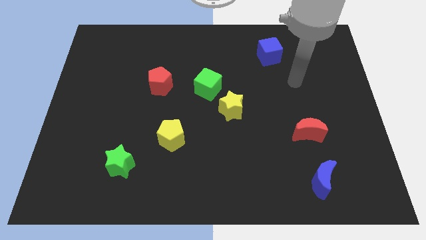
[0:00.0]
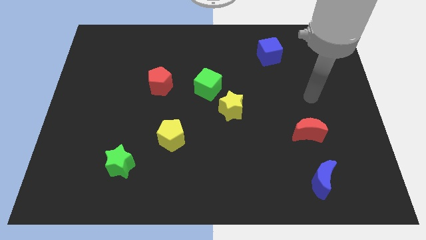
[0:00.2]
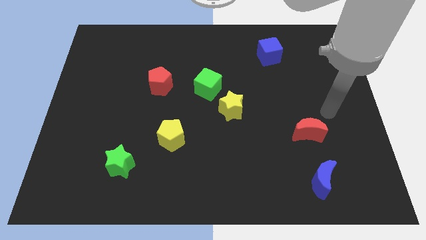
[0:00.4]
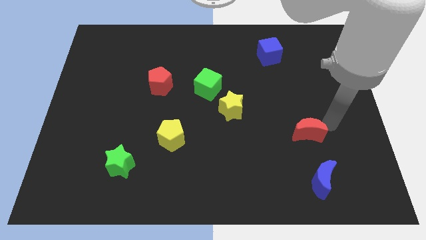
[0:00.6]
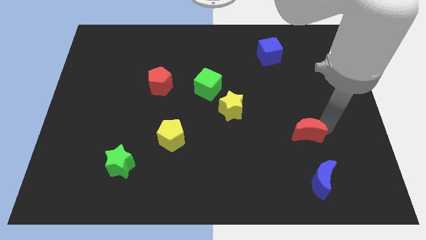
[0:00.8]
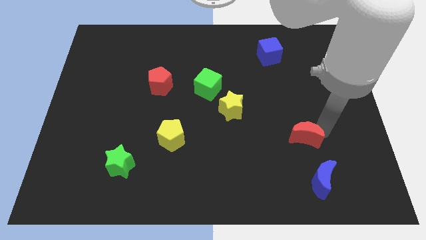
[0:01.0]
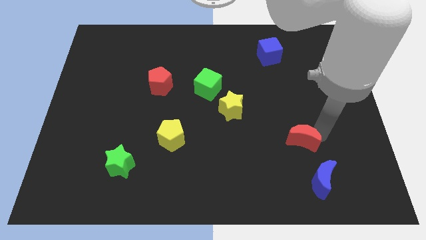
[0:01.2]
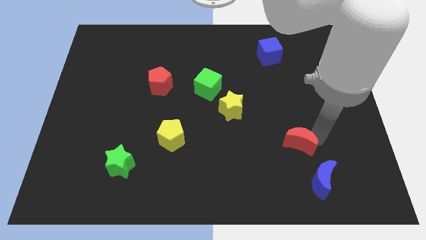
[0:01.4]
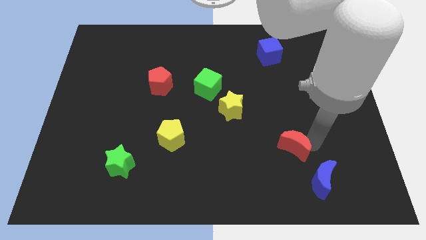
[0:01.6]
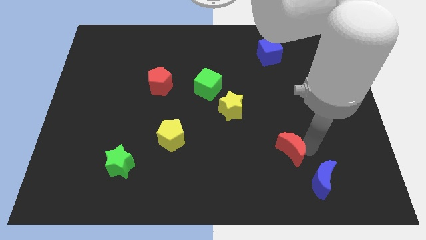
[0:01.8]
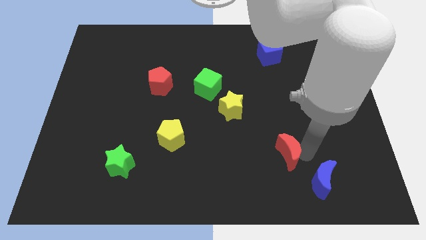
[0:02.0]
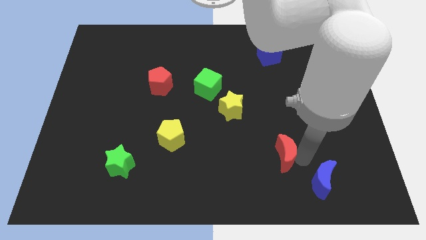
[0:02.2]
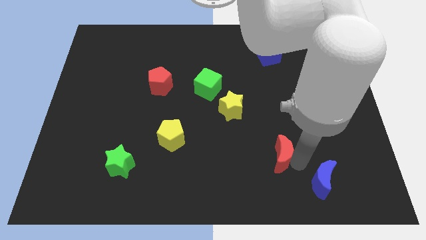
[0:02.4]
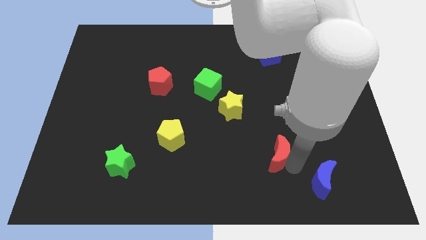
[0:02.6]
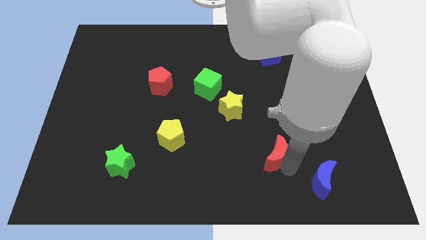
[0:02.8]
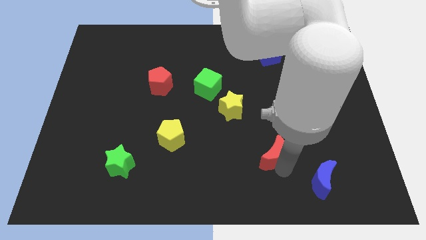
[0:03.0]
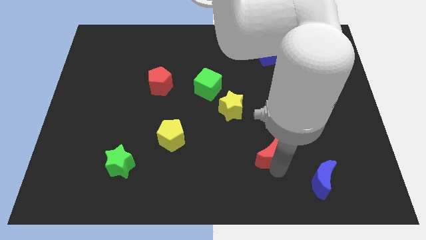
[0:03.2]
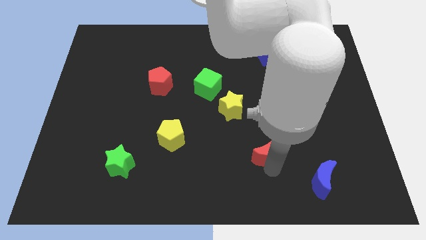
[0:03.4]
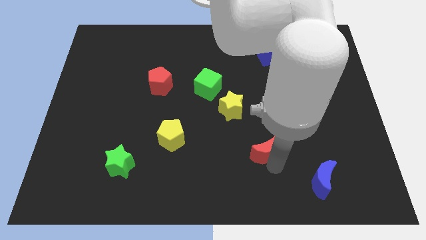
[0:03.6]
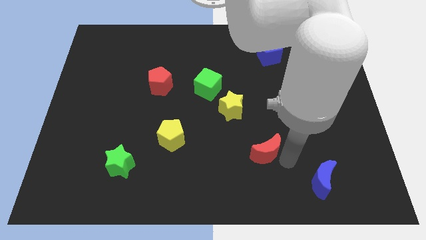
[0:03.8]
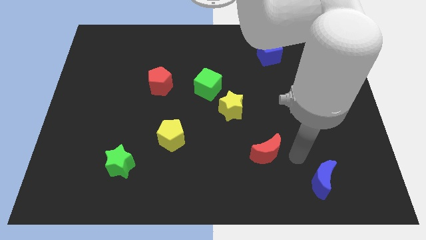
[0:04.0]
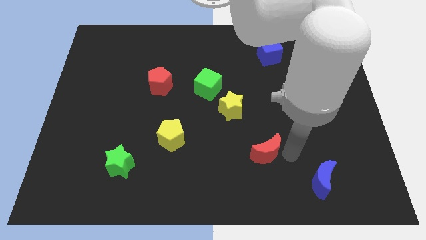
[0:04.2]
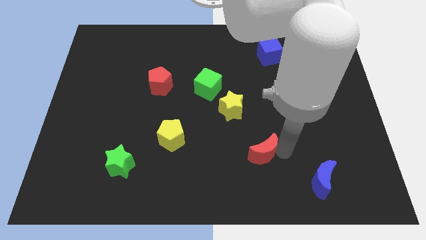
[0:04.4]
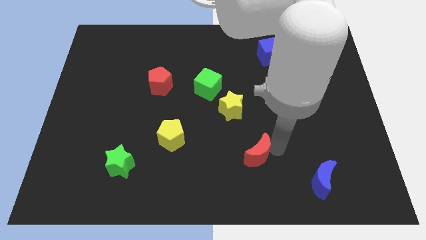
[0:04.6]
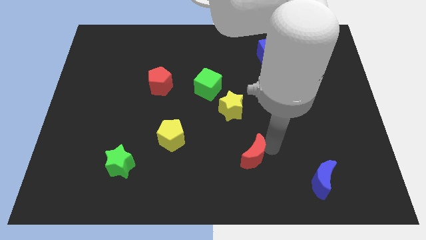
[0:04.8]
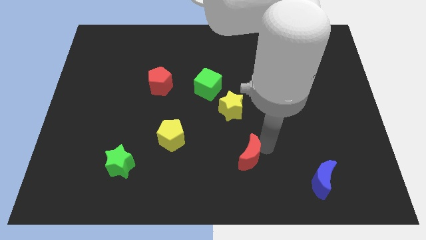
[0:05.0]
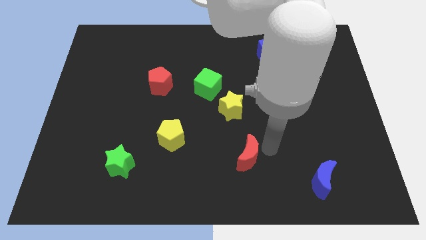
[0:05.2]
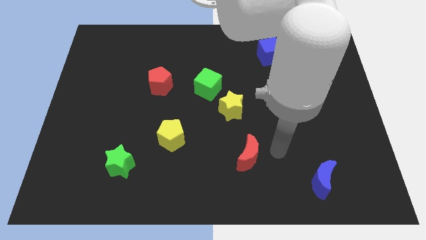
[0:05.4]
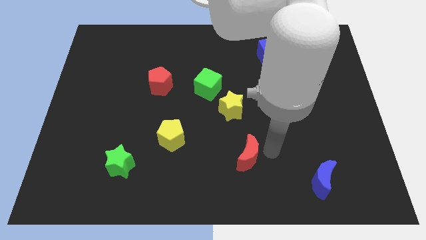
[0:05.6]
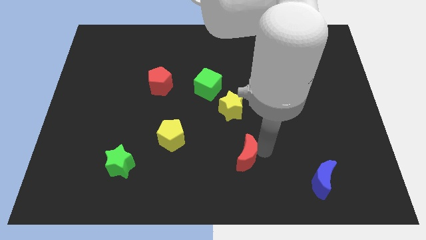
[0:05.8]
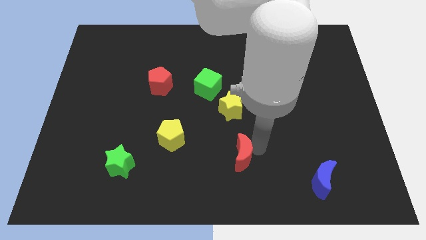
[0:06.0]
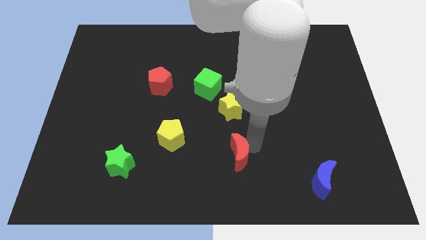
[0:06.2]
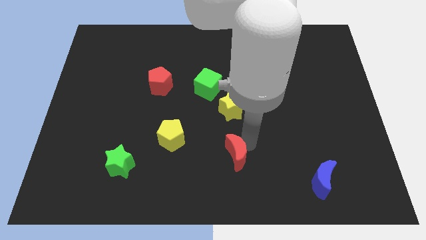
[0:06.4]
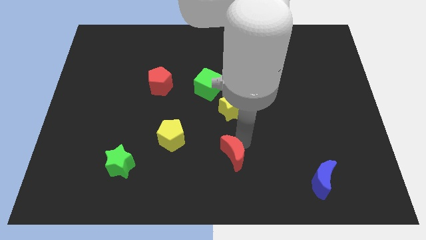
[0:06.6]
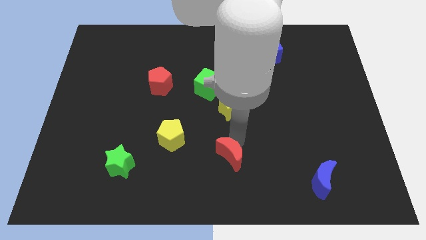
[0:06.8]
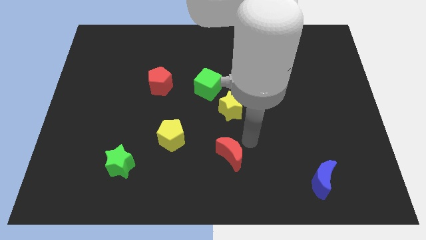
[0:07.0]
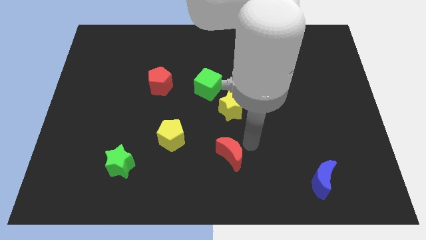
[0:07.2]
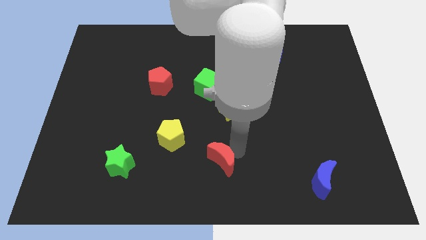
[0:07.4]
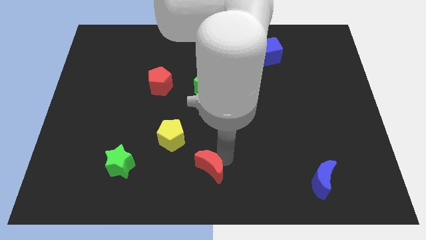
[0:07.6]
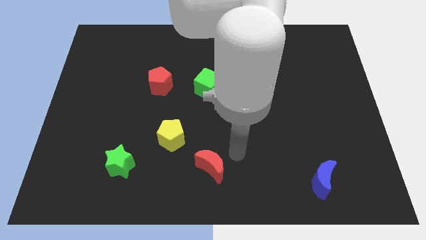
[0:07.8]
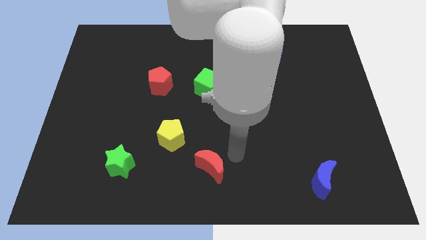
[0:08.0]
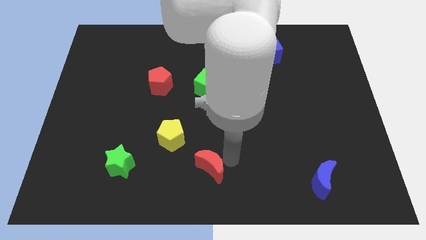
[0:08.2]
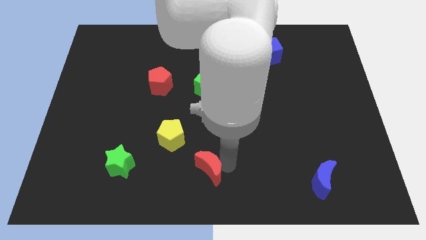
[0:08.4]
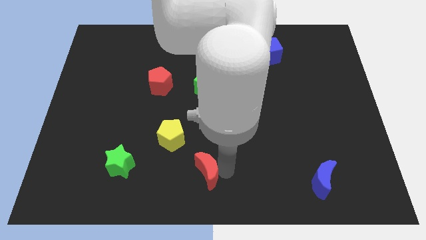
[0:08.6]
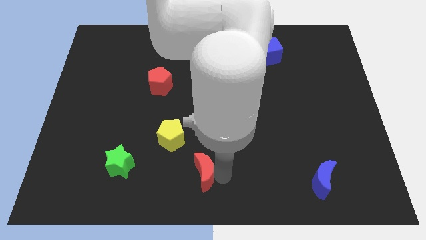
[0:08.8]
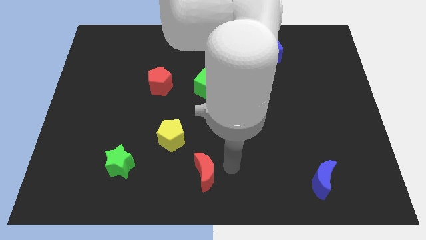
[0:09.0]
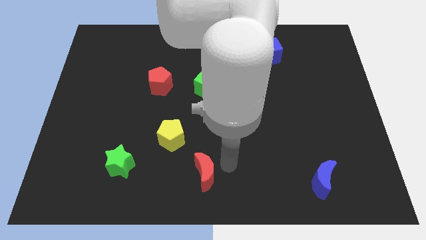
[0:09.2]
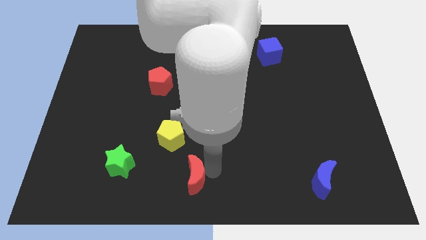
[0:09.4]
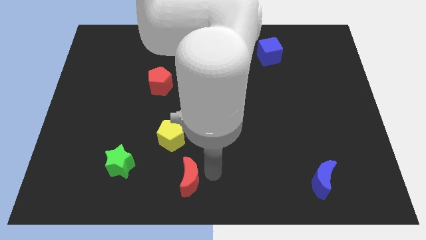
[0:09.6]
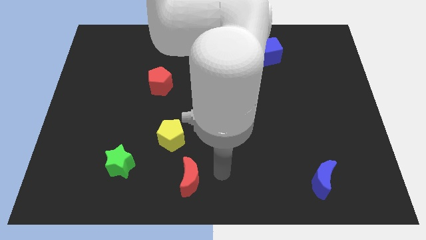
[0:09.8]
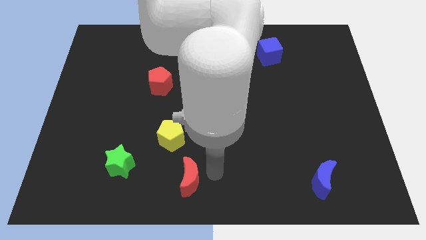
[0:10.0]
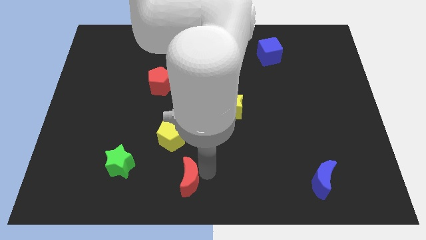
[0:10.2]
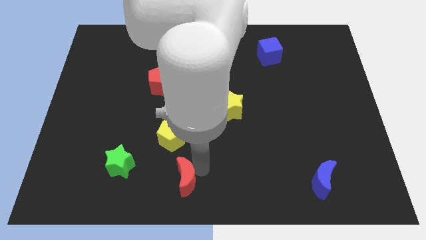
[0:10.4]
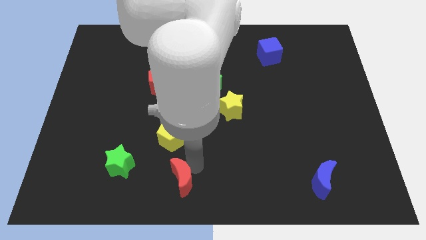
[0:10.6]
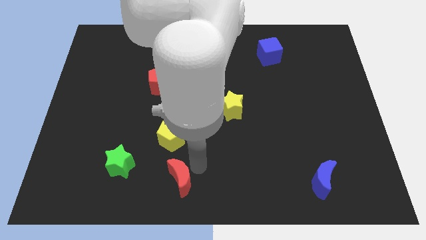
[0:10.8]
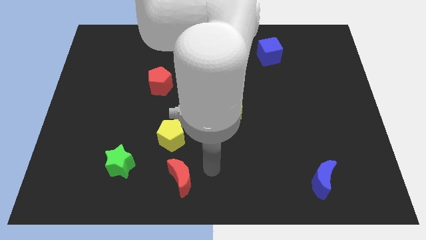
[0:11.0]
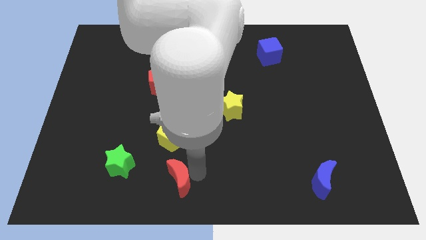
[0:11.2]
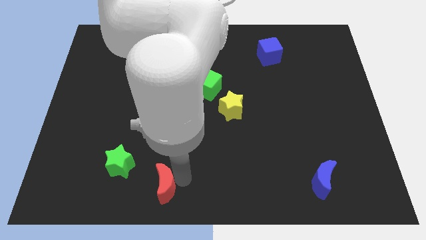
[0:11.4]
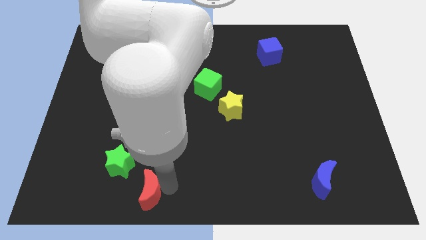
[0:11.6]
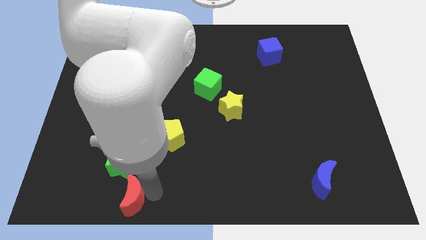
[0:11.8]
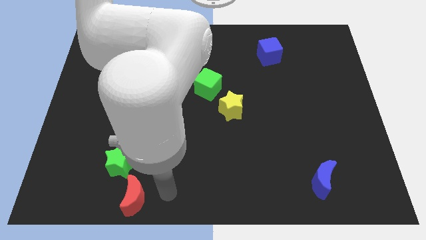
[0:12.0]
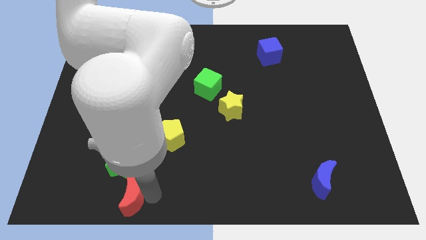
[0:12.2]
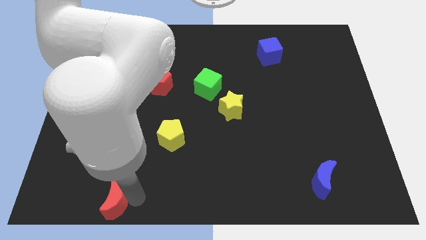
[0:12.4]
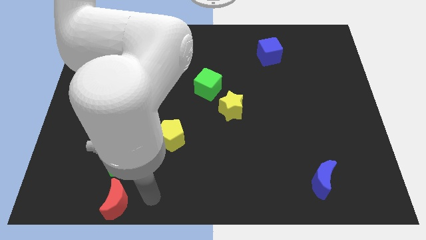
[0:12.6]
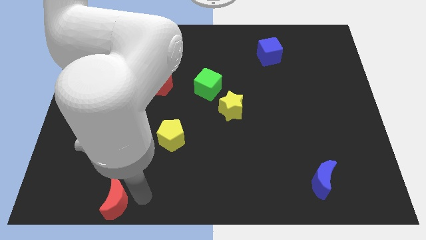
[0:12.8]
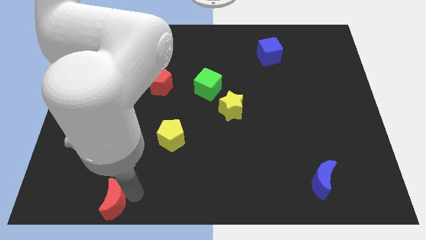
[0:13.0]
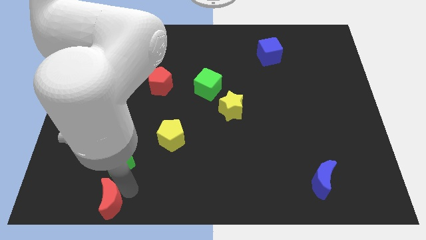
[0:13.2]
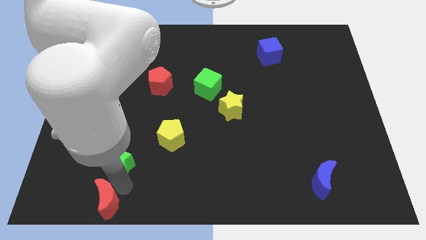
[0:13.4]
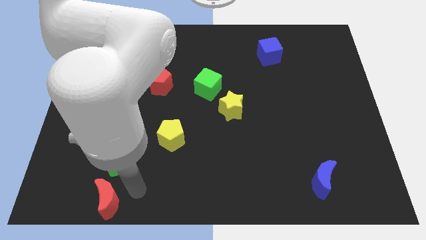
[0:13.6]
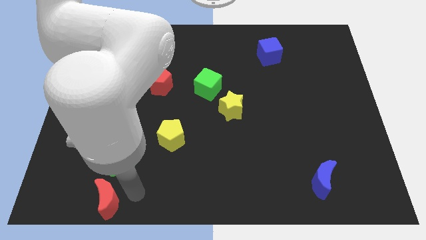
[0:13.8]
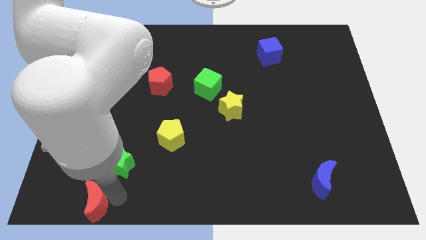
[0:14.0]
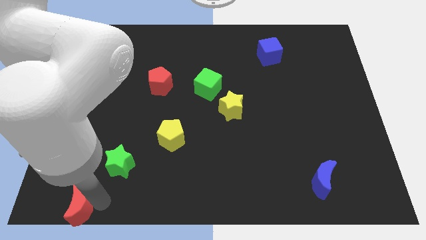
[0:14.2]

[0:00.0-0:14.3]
put the red moon to the bottom left of the board
